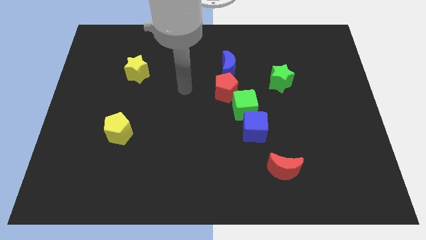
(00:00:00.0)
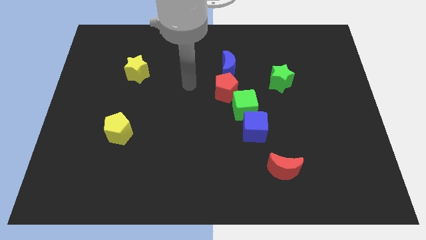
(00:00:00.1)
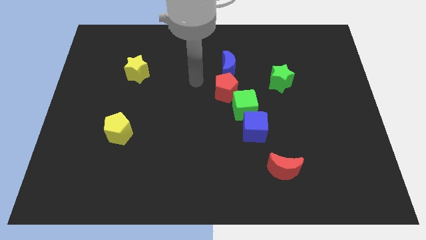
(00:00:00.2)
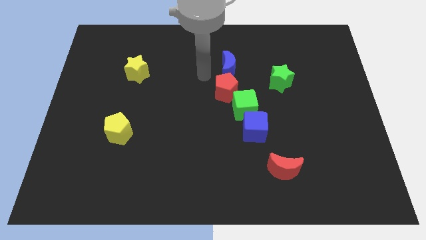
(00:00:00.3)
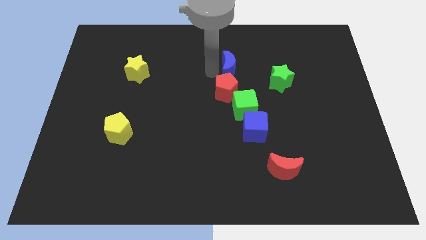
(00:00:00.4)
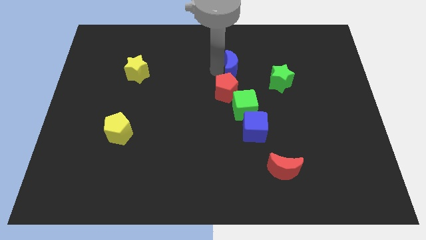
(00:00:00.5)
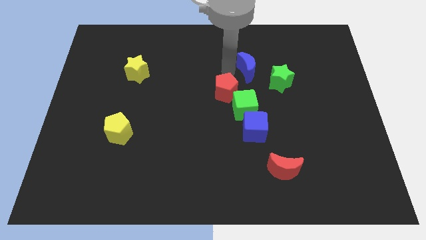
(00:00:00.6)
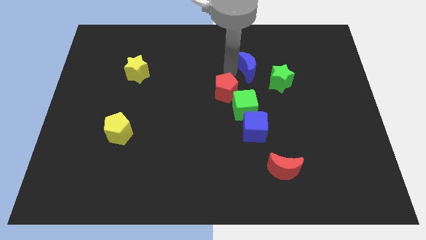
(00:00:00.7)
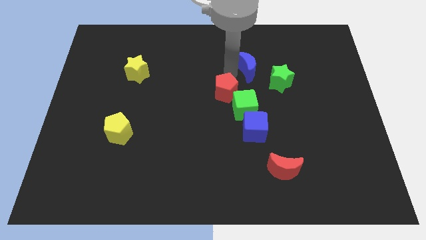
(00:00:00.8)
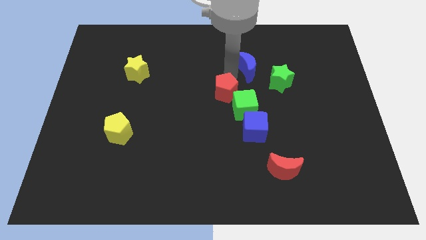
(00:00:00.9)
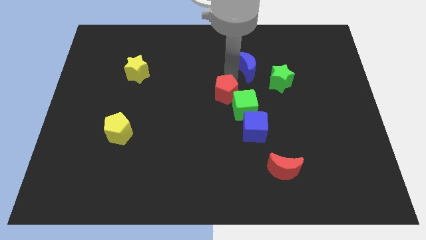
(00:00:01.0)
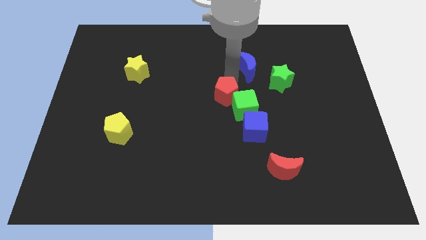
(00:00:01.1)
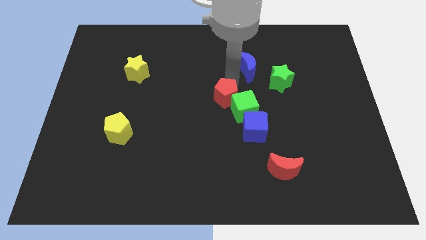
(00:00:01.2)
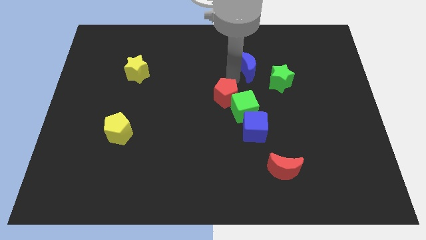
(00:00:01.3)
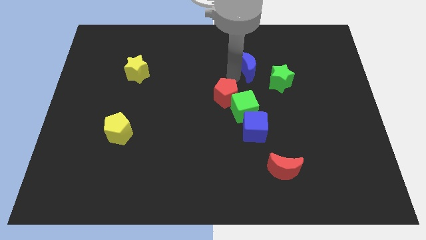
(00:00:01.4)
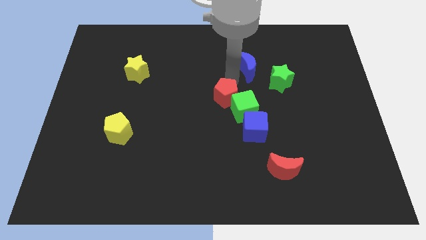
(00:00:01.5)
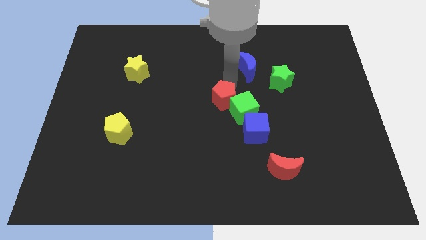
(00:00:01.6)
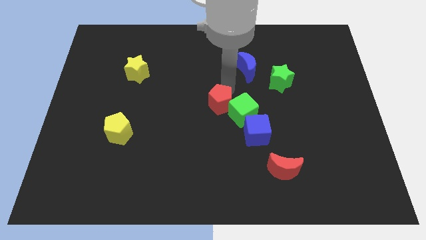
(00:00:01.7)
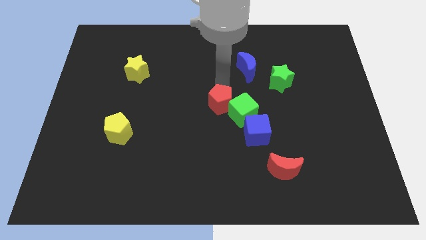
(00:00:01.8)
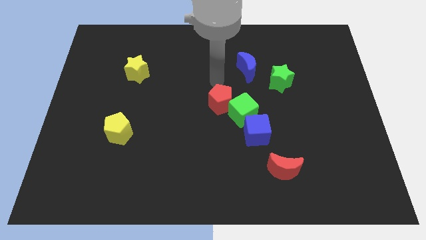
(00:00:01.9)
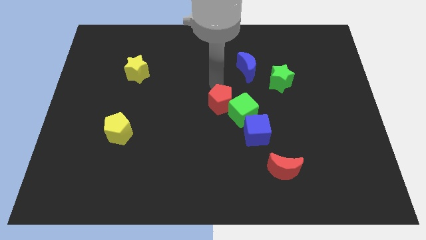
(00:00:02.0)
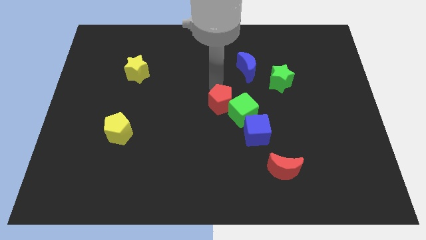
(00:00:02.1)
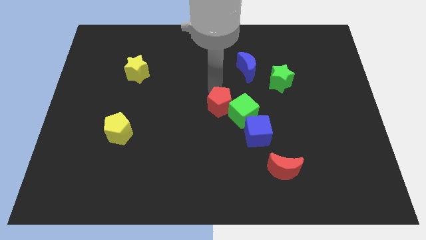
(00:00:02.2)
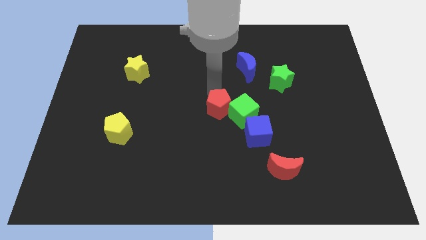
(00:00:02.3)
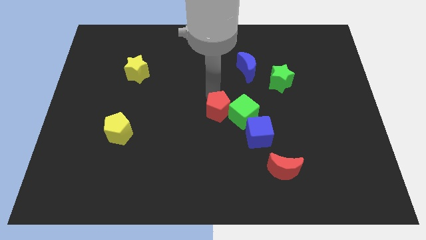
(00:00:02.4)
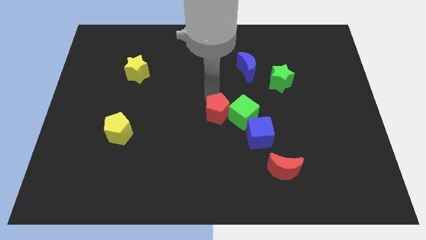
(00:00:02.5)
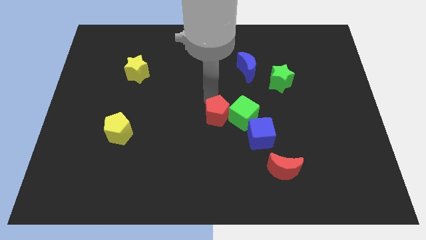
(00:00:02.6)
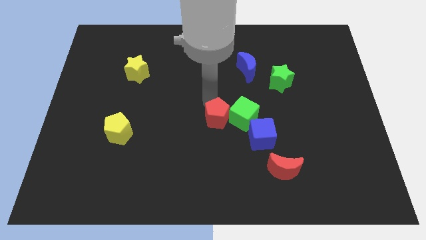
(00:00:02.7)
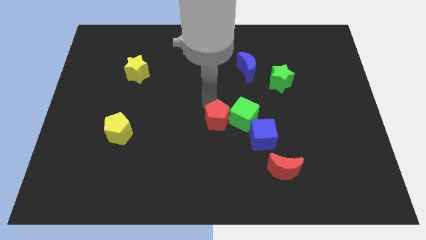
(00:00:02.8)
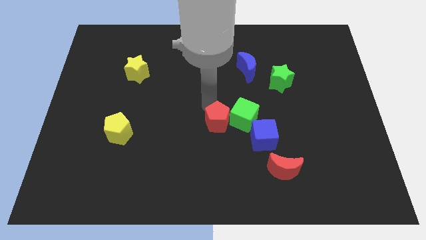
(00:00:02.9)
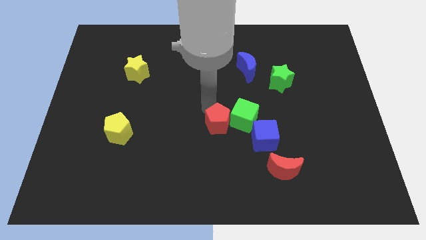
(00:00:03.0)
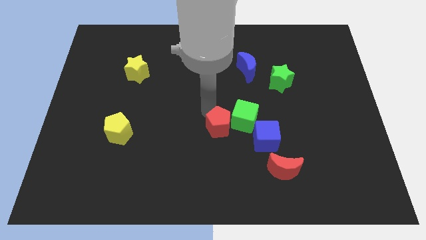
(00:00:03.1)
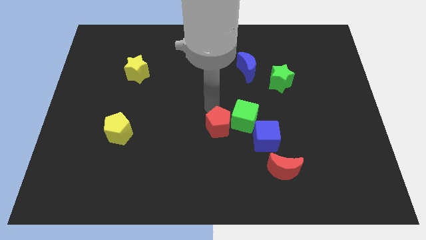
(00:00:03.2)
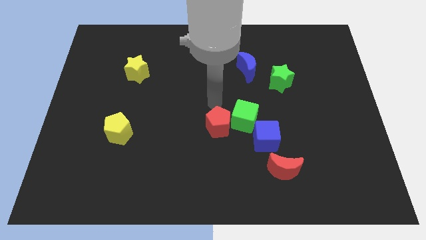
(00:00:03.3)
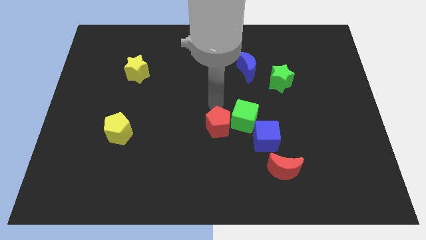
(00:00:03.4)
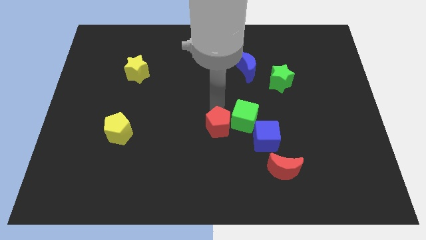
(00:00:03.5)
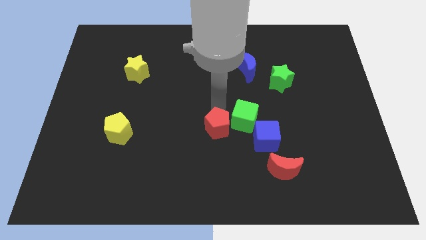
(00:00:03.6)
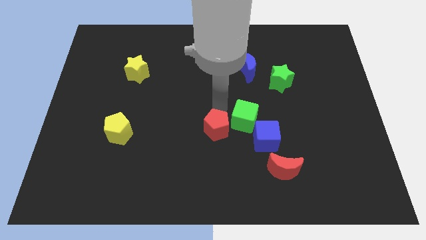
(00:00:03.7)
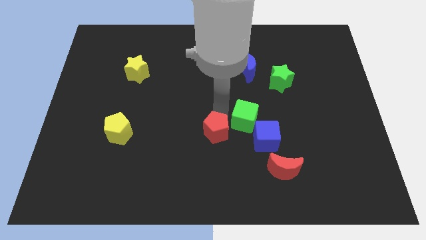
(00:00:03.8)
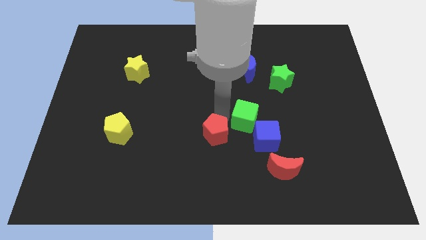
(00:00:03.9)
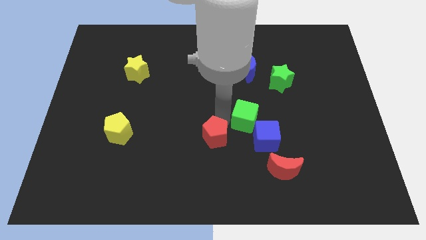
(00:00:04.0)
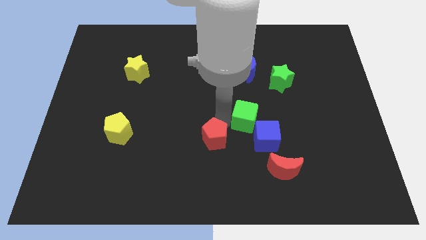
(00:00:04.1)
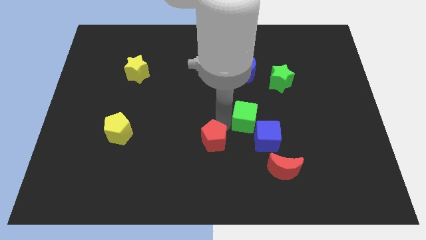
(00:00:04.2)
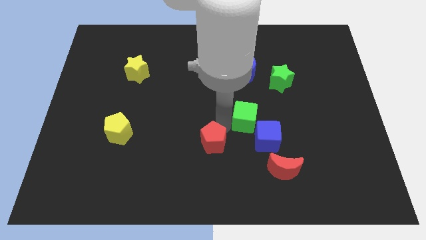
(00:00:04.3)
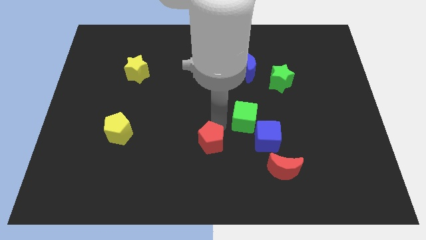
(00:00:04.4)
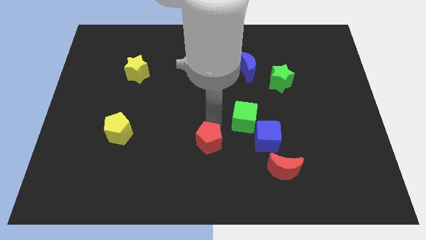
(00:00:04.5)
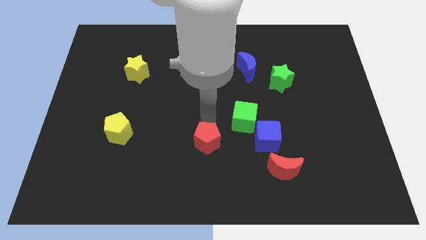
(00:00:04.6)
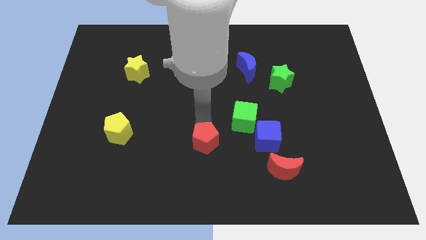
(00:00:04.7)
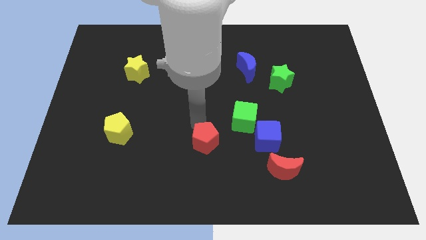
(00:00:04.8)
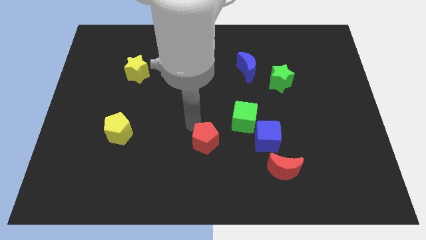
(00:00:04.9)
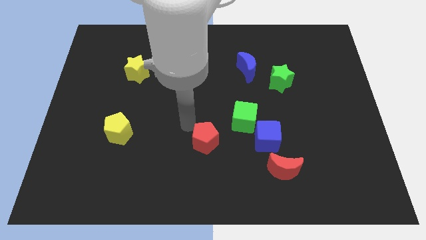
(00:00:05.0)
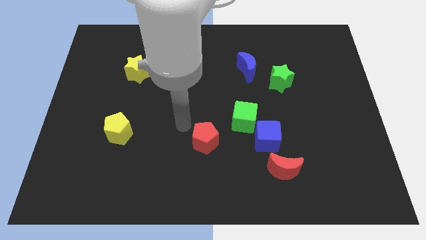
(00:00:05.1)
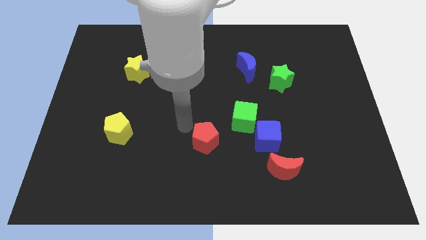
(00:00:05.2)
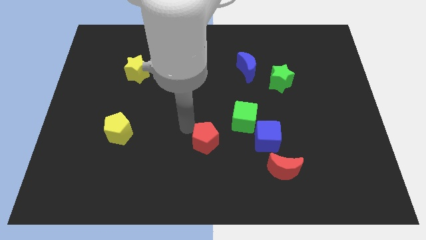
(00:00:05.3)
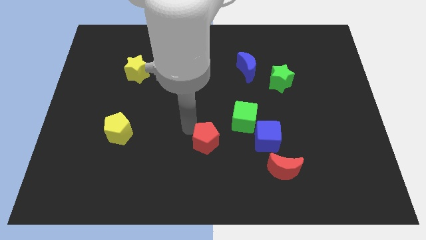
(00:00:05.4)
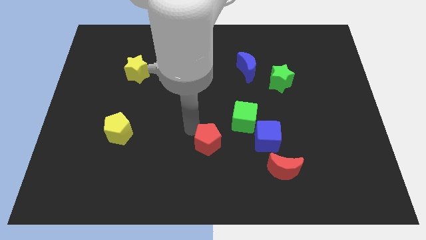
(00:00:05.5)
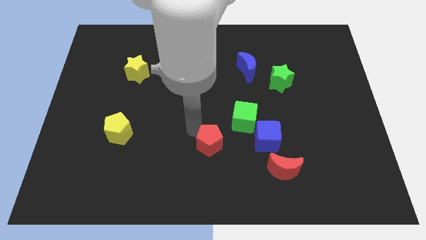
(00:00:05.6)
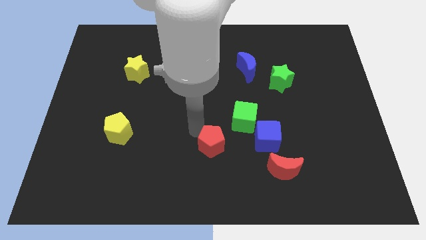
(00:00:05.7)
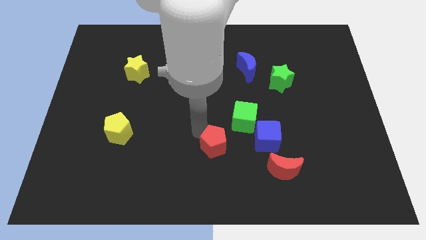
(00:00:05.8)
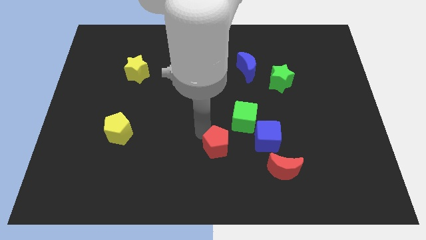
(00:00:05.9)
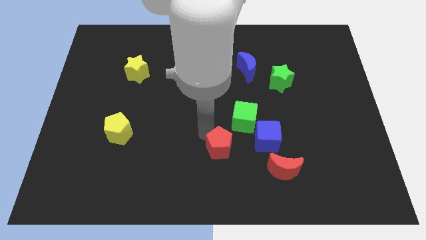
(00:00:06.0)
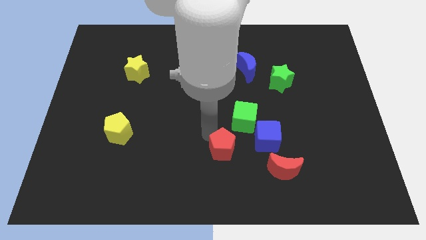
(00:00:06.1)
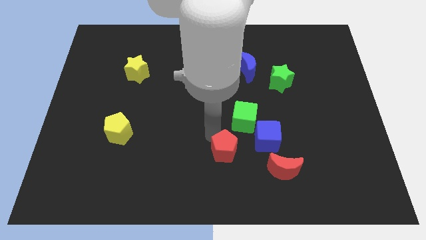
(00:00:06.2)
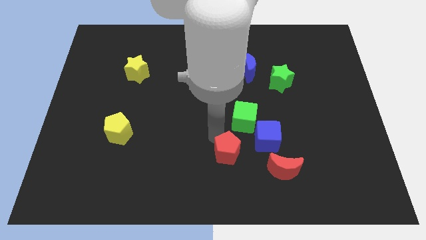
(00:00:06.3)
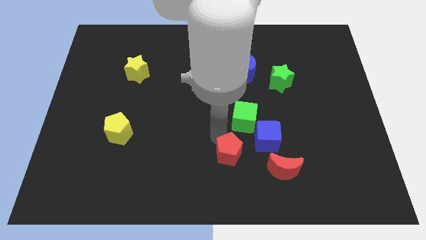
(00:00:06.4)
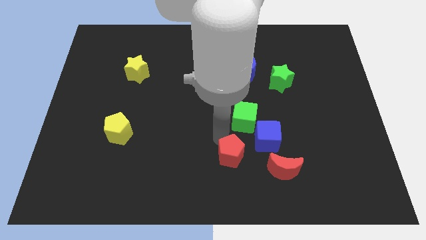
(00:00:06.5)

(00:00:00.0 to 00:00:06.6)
push the red pentagon to the bottom
